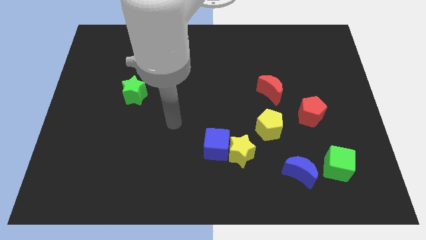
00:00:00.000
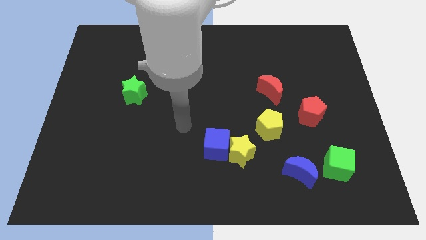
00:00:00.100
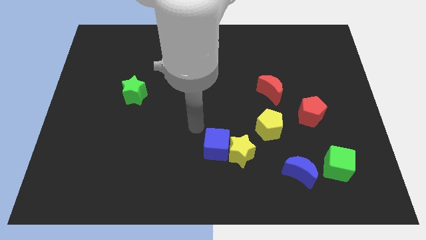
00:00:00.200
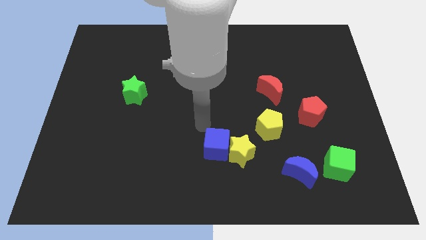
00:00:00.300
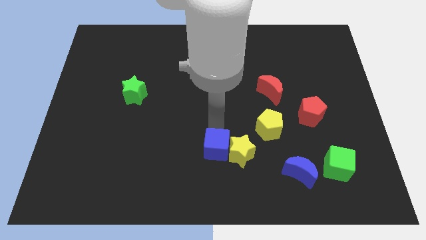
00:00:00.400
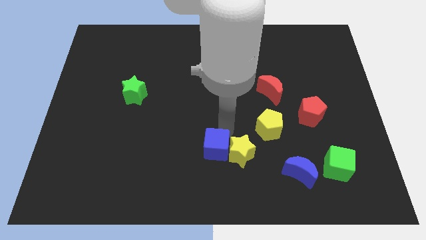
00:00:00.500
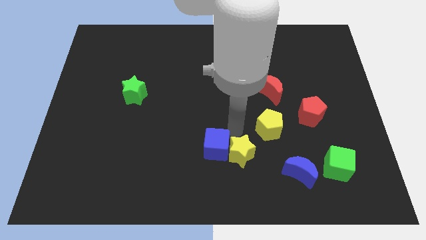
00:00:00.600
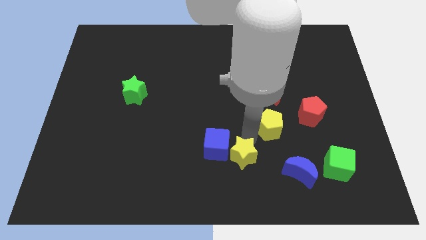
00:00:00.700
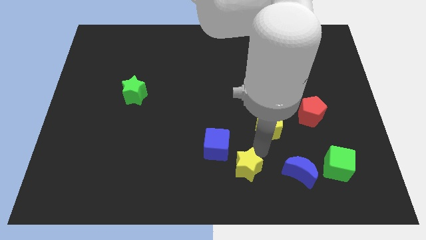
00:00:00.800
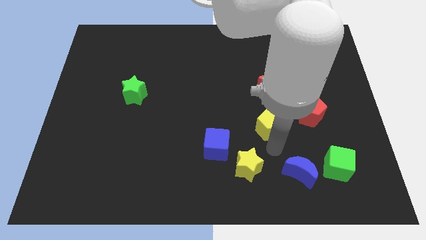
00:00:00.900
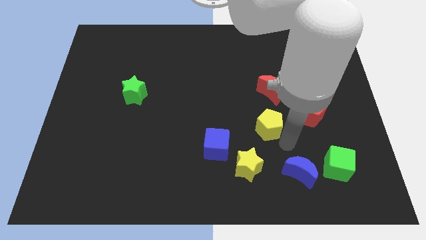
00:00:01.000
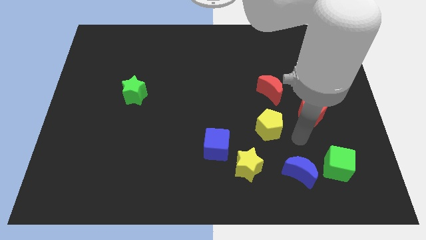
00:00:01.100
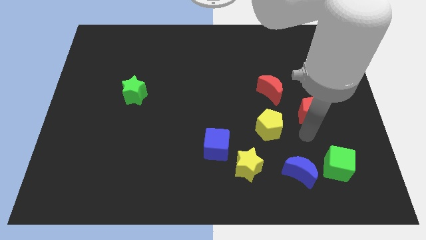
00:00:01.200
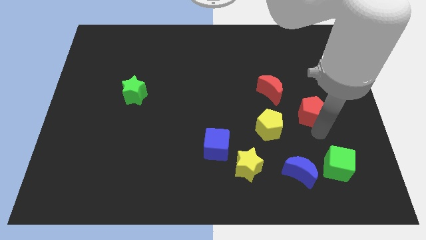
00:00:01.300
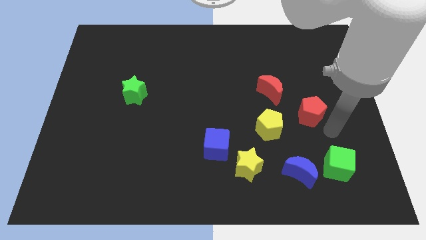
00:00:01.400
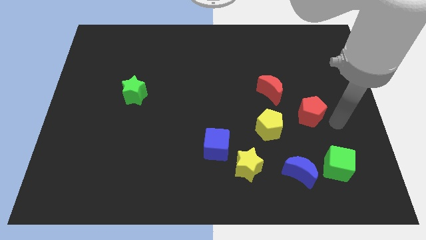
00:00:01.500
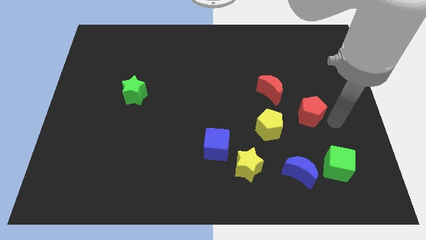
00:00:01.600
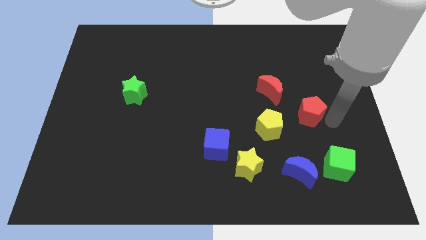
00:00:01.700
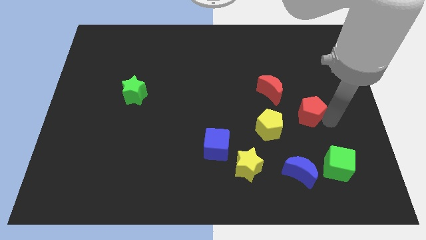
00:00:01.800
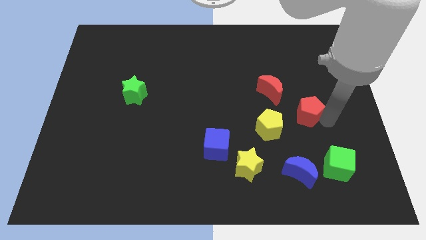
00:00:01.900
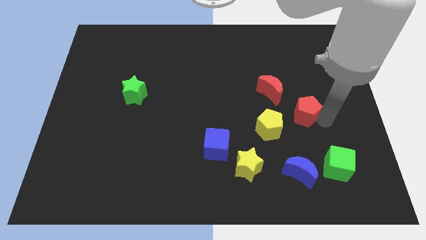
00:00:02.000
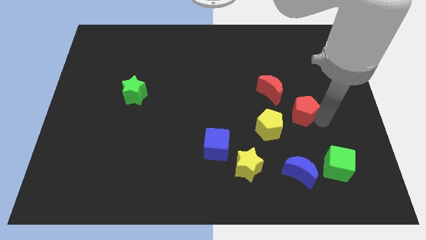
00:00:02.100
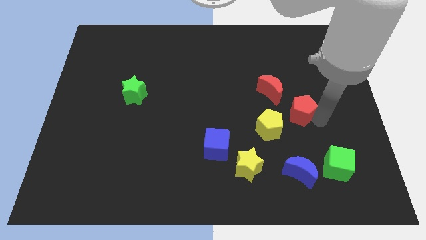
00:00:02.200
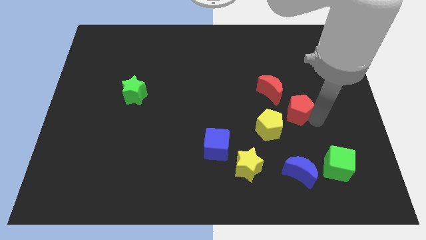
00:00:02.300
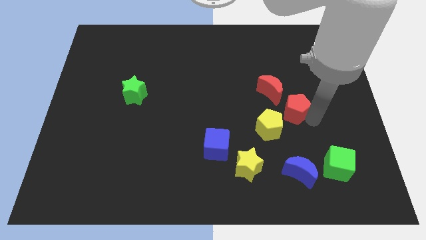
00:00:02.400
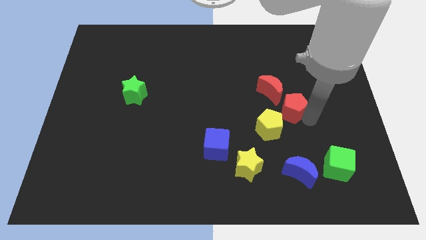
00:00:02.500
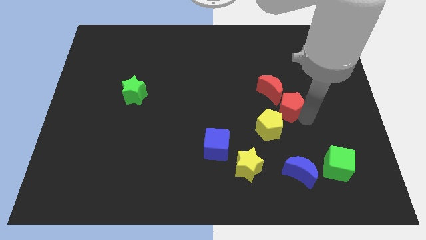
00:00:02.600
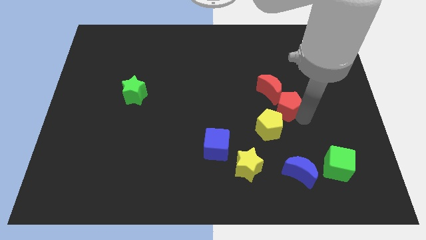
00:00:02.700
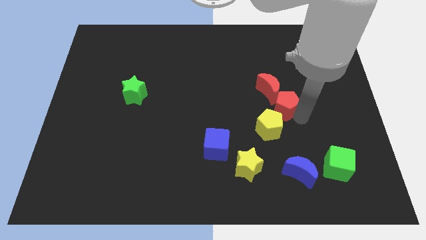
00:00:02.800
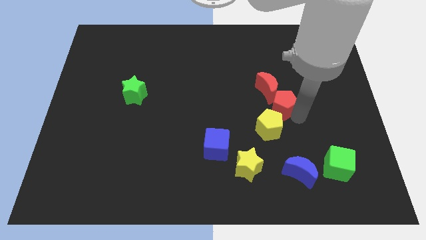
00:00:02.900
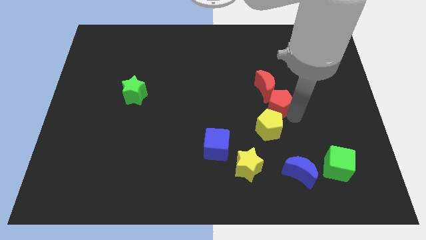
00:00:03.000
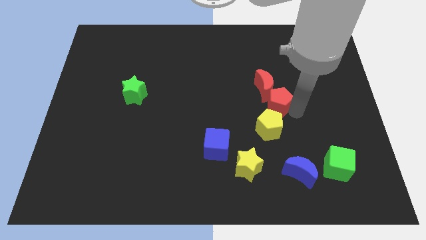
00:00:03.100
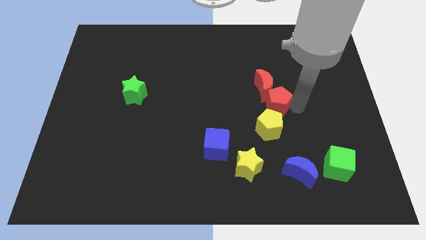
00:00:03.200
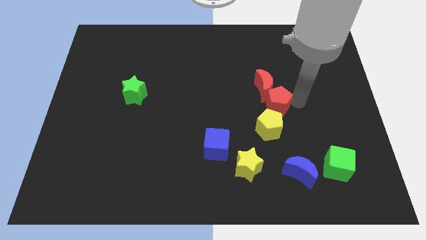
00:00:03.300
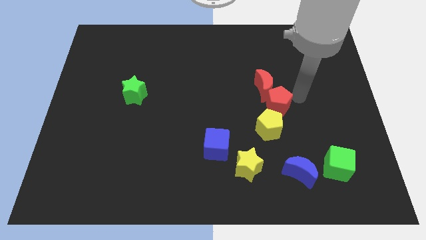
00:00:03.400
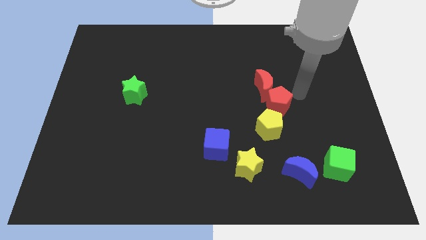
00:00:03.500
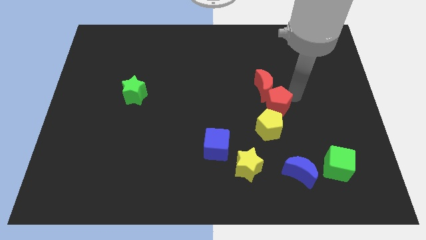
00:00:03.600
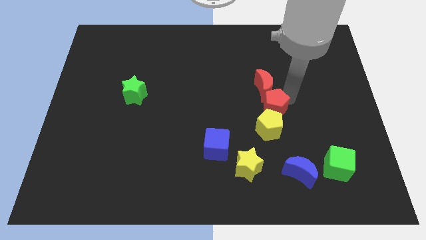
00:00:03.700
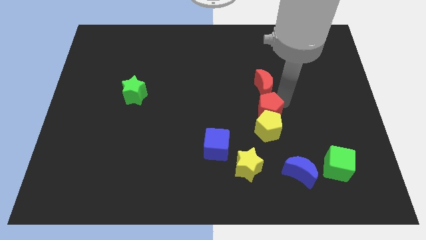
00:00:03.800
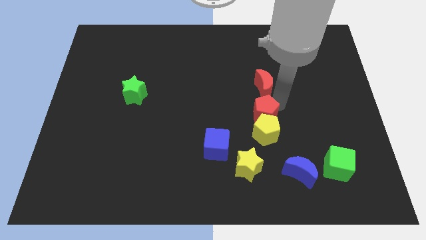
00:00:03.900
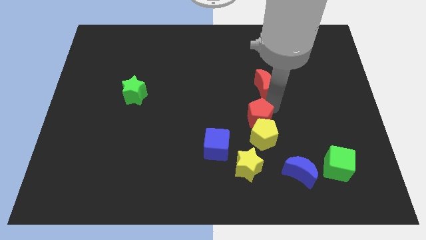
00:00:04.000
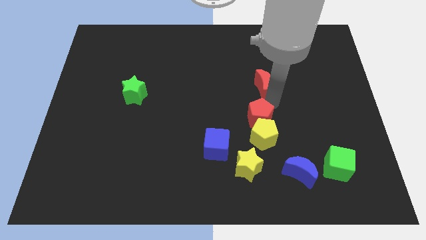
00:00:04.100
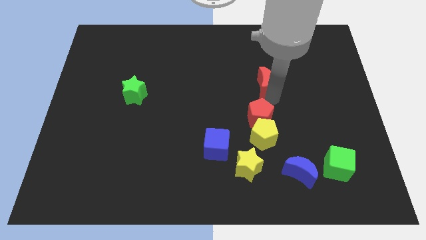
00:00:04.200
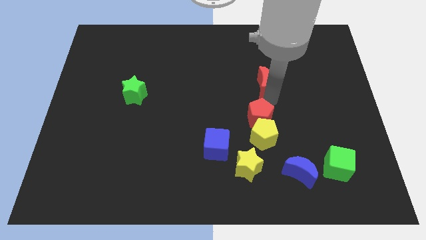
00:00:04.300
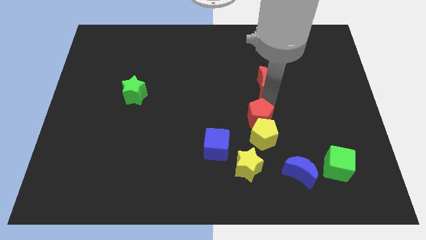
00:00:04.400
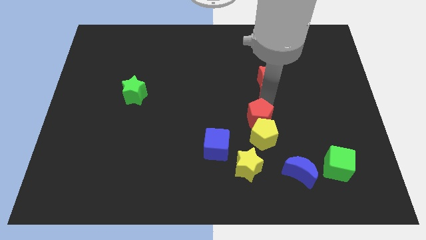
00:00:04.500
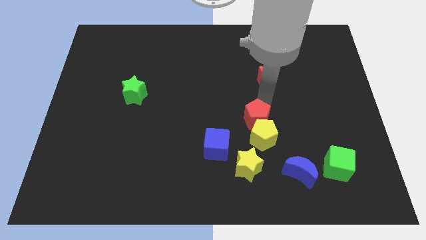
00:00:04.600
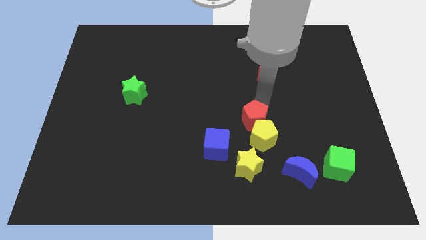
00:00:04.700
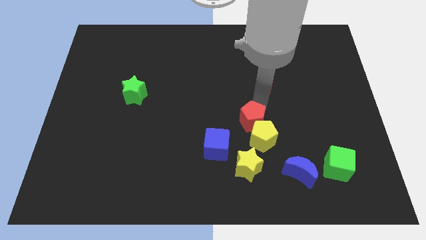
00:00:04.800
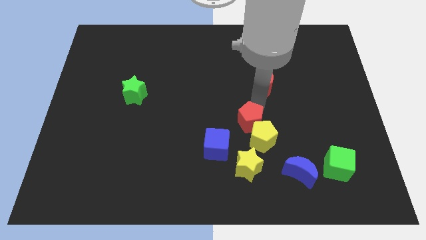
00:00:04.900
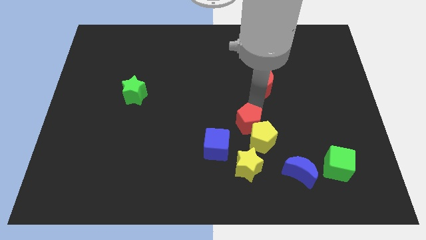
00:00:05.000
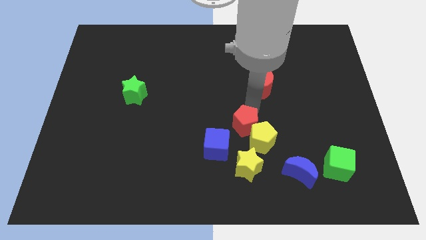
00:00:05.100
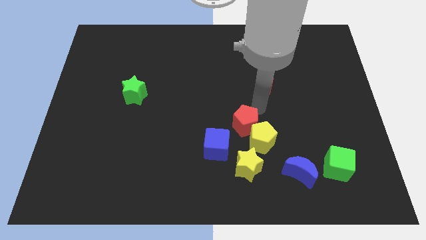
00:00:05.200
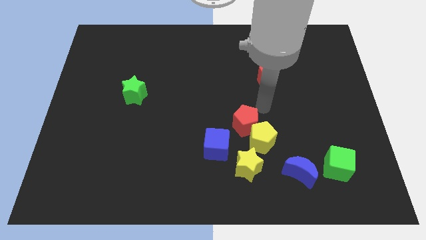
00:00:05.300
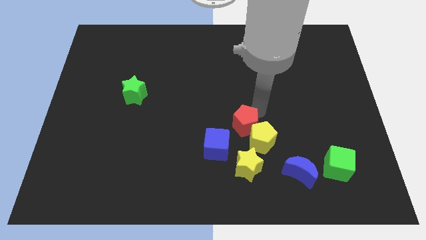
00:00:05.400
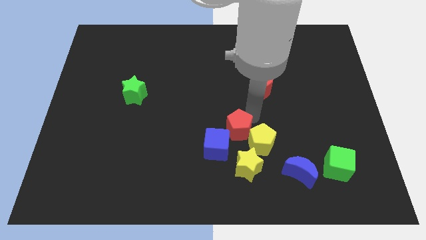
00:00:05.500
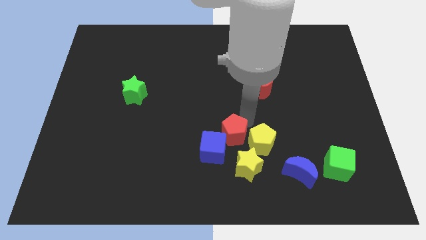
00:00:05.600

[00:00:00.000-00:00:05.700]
put the red pentagon towards the blue cube
